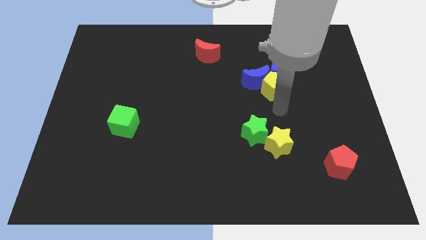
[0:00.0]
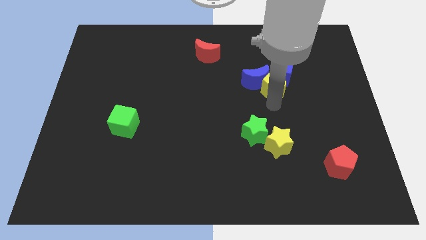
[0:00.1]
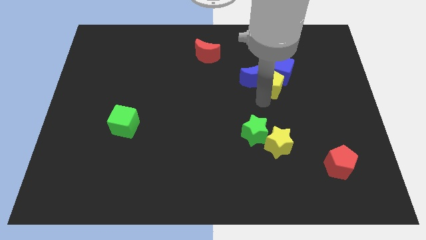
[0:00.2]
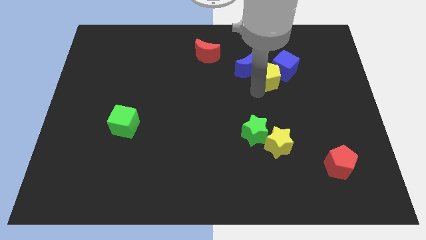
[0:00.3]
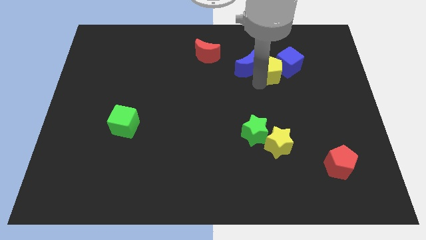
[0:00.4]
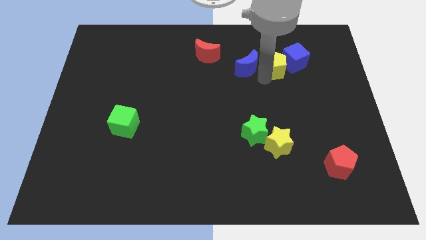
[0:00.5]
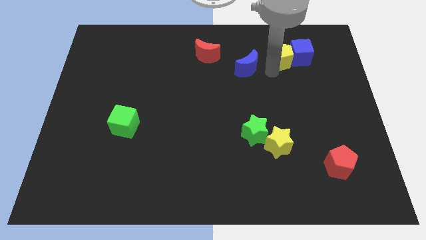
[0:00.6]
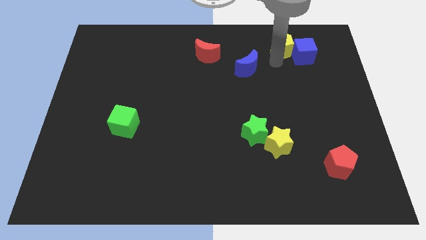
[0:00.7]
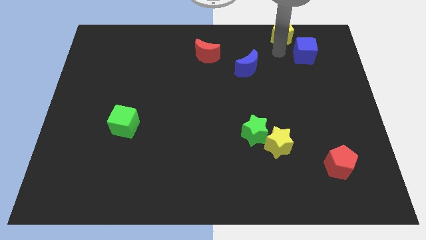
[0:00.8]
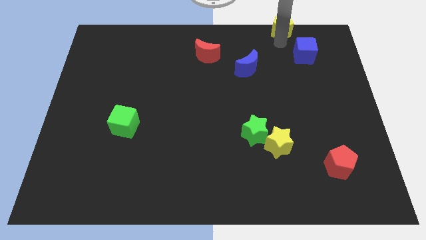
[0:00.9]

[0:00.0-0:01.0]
pull the yellow pentagon apart from the blue moon and blue cube

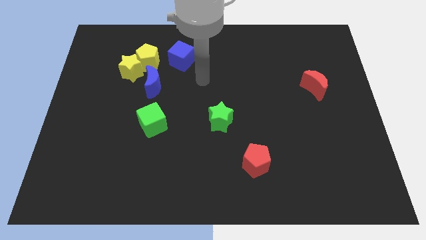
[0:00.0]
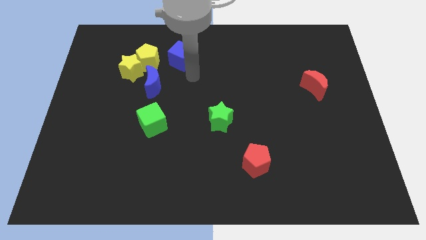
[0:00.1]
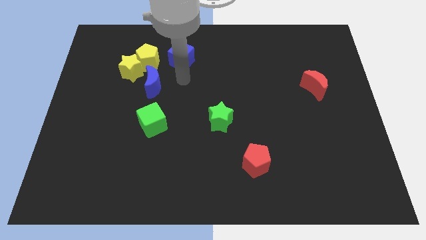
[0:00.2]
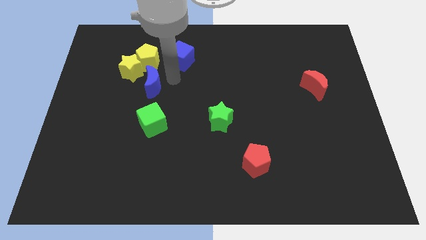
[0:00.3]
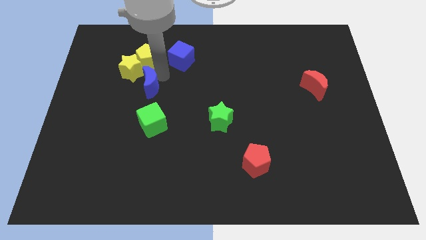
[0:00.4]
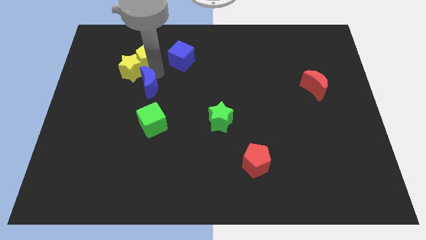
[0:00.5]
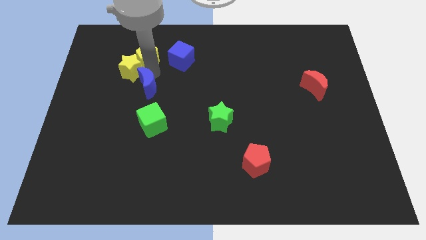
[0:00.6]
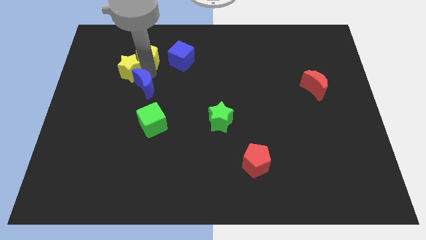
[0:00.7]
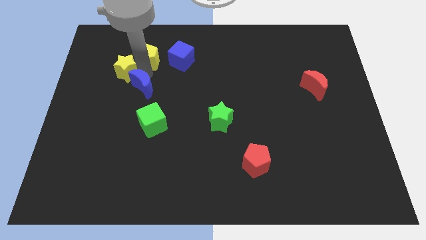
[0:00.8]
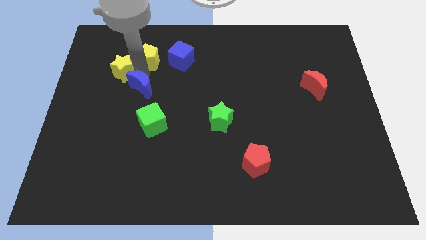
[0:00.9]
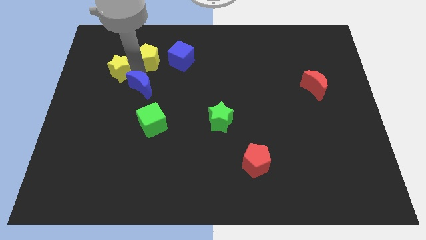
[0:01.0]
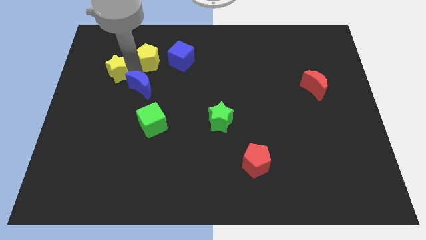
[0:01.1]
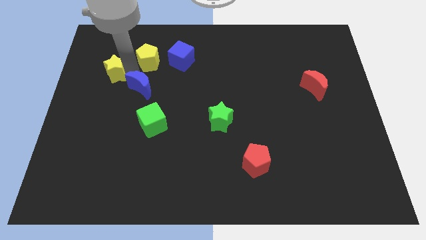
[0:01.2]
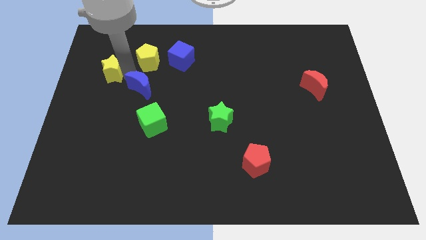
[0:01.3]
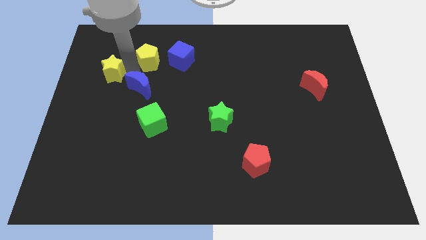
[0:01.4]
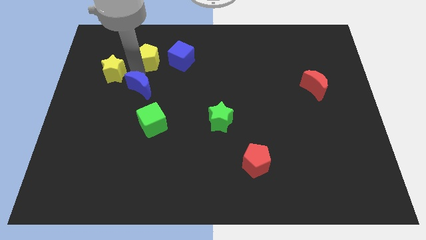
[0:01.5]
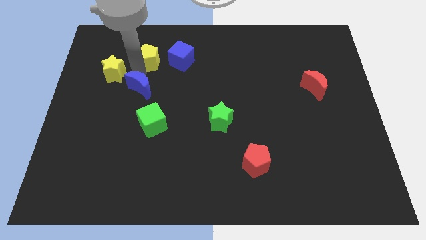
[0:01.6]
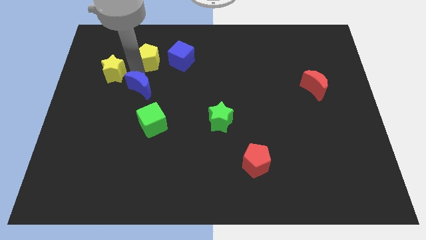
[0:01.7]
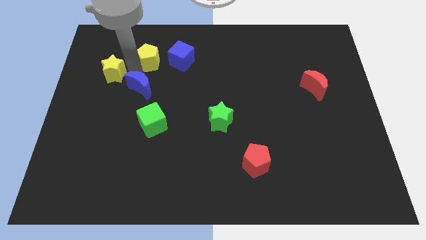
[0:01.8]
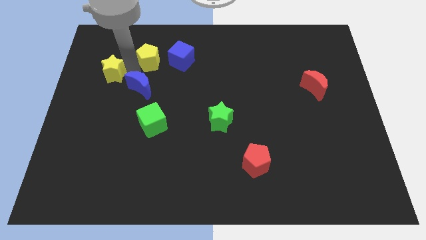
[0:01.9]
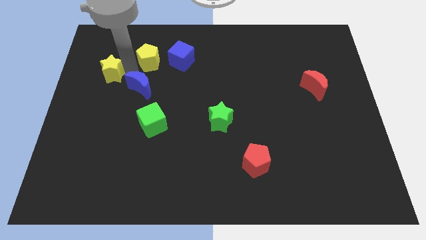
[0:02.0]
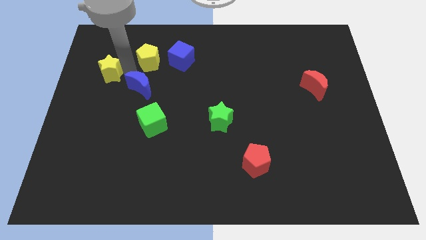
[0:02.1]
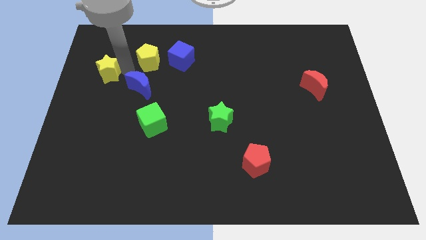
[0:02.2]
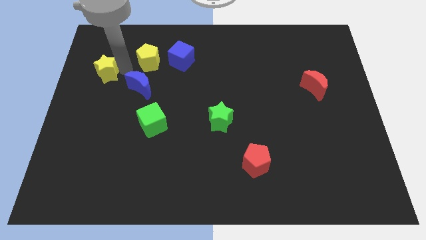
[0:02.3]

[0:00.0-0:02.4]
pull the yellow star apart from the yellow pentagon and blue moon

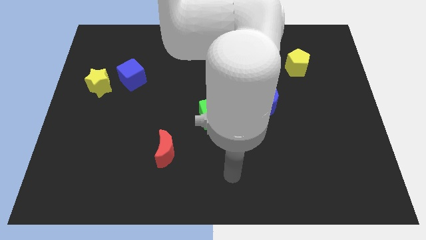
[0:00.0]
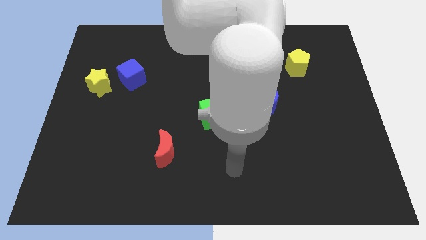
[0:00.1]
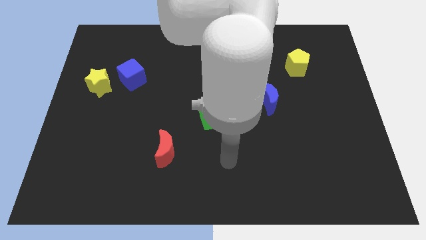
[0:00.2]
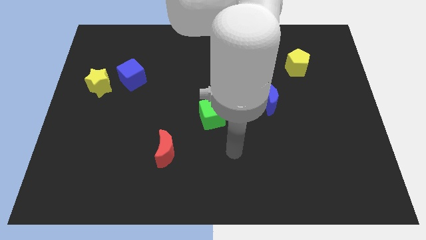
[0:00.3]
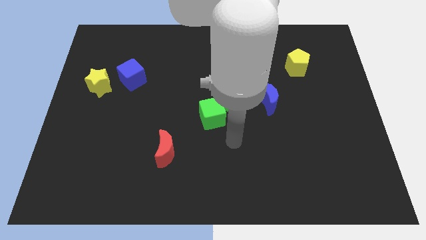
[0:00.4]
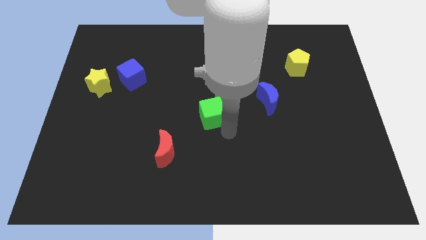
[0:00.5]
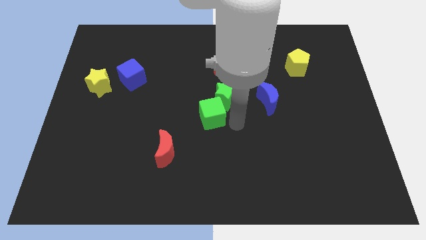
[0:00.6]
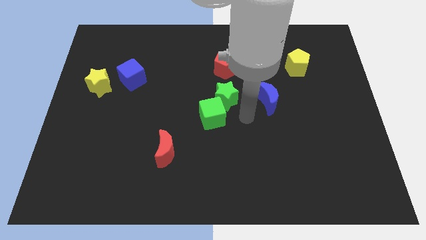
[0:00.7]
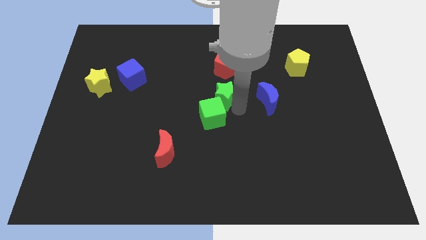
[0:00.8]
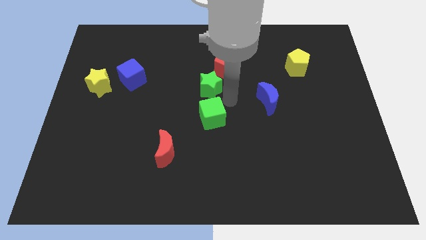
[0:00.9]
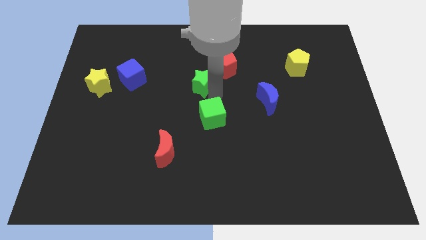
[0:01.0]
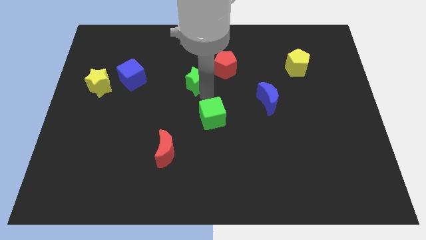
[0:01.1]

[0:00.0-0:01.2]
move the green cube away from the green star

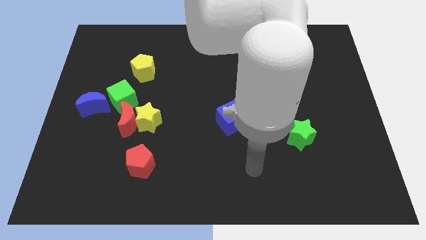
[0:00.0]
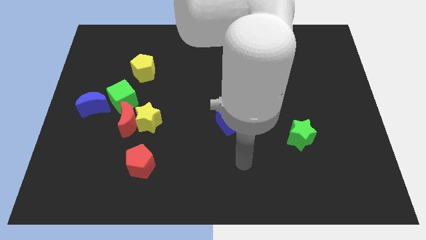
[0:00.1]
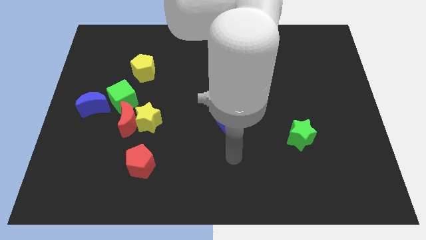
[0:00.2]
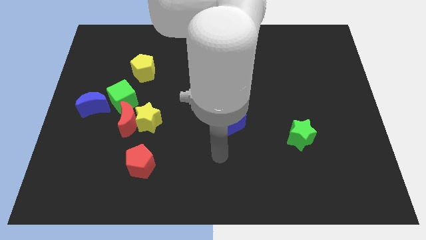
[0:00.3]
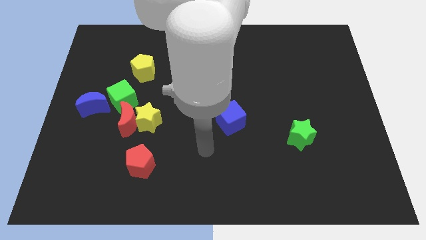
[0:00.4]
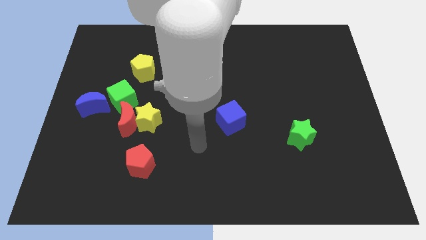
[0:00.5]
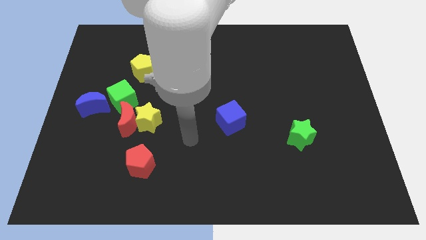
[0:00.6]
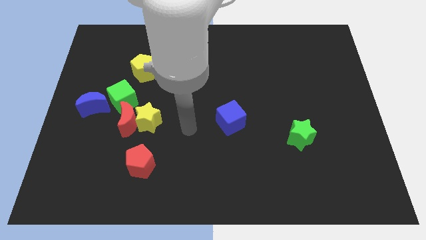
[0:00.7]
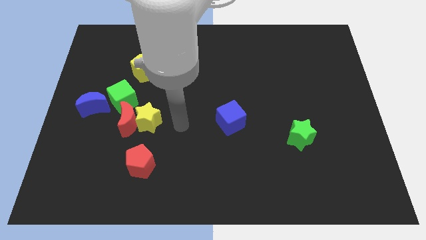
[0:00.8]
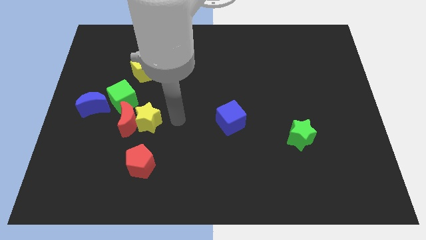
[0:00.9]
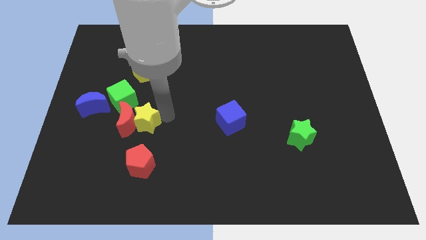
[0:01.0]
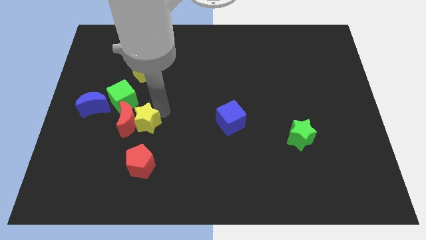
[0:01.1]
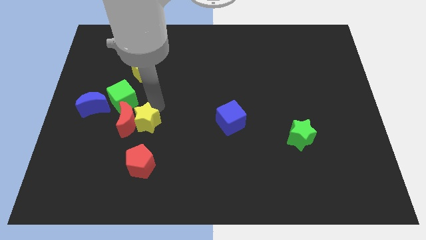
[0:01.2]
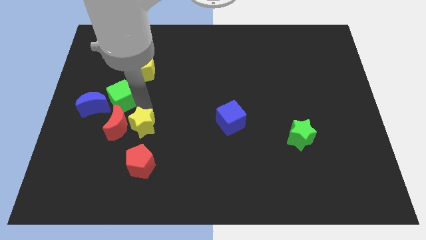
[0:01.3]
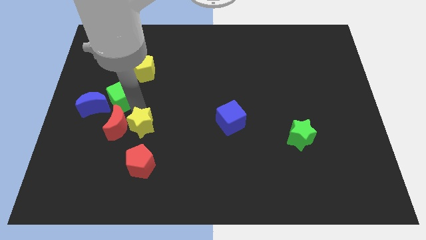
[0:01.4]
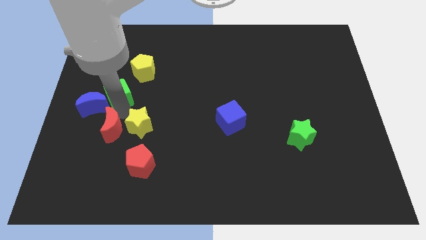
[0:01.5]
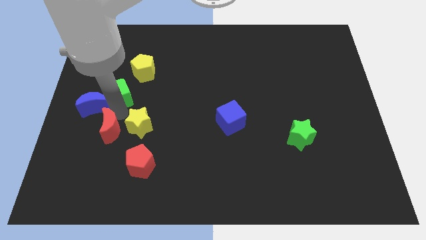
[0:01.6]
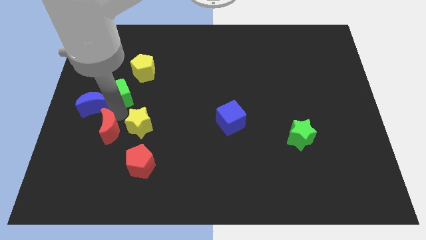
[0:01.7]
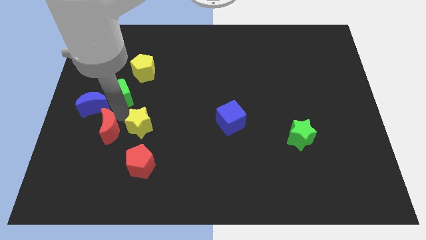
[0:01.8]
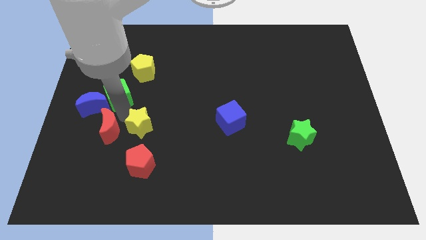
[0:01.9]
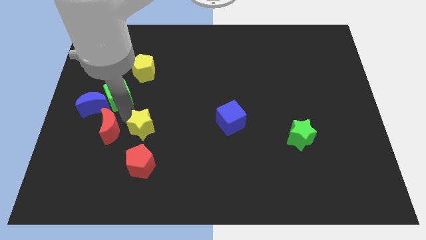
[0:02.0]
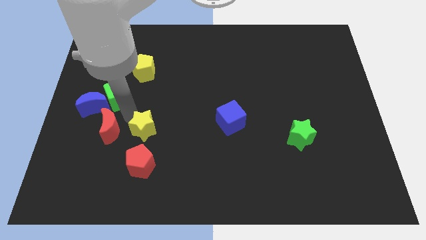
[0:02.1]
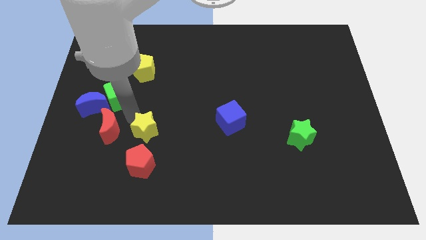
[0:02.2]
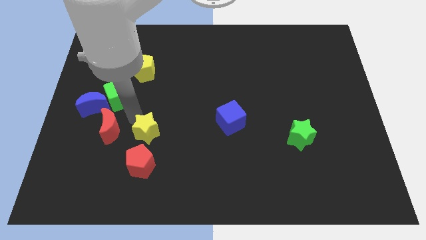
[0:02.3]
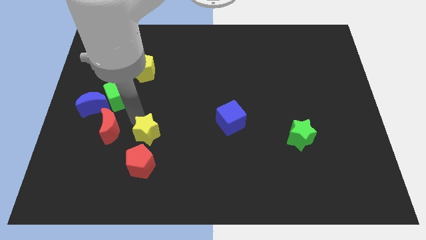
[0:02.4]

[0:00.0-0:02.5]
move the yellow star away from the red moon and green cube

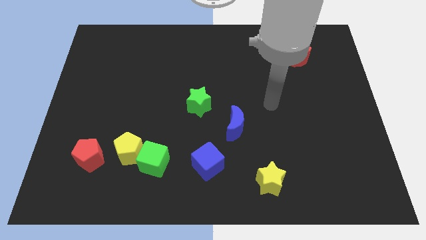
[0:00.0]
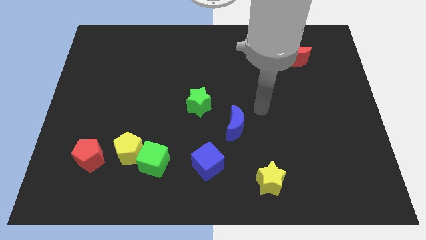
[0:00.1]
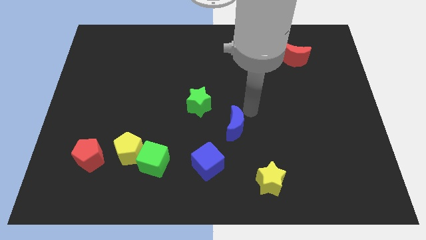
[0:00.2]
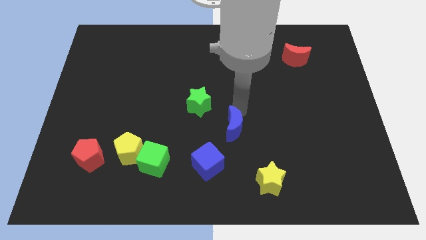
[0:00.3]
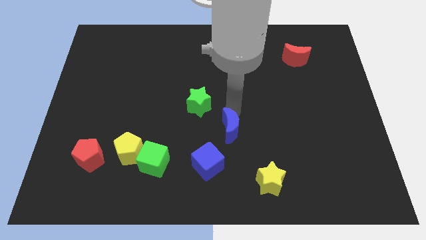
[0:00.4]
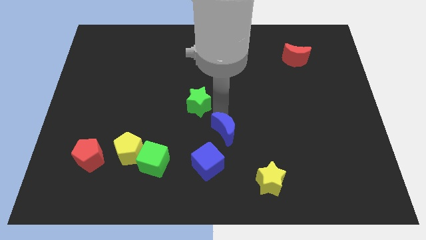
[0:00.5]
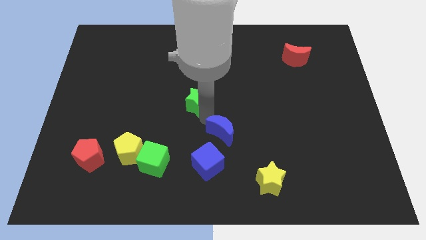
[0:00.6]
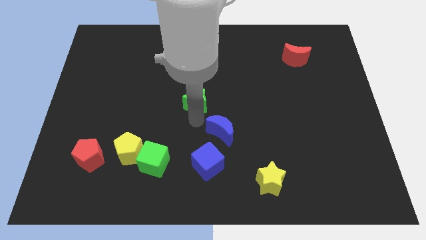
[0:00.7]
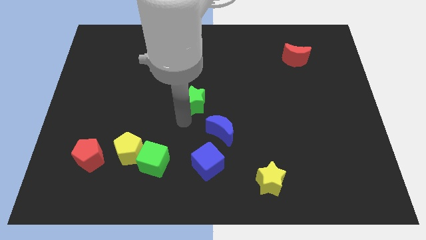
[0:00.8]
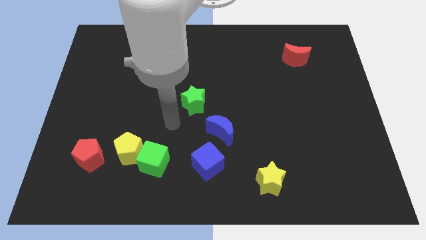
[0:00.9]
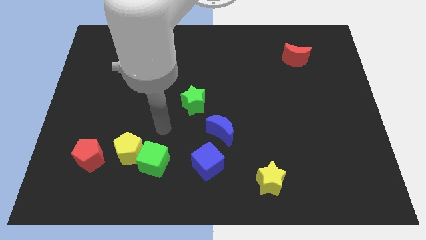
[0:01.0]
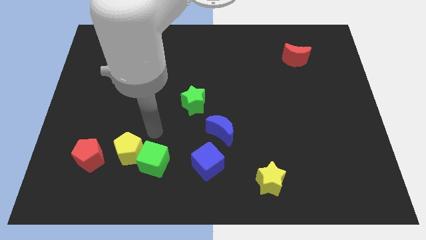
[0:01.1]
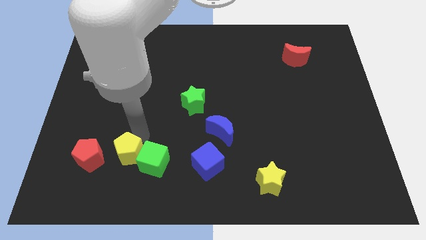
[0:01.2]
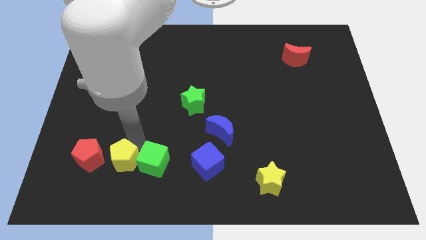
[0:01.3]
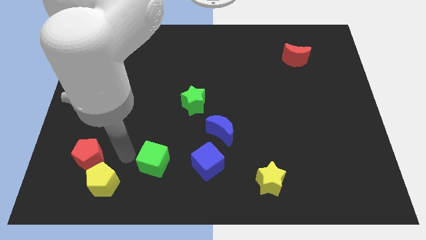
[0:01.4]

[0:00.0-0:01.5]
separate the green cube from the yellow pentagon

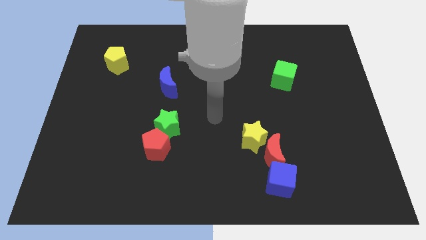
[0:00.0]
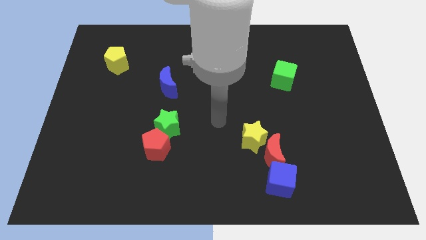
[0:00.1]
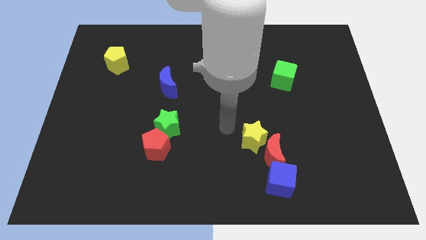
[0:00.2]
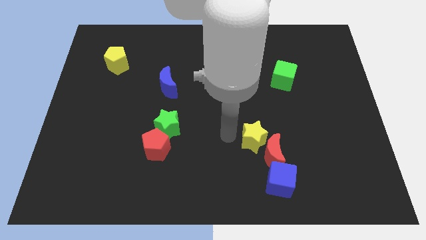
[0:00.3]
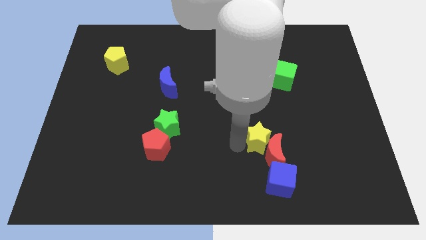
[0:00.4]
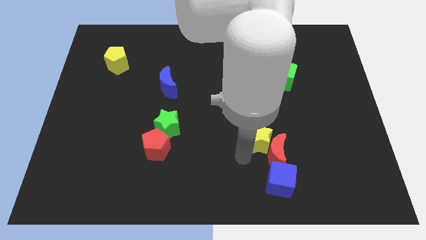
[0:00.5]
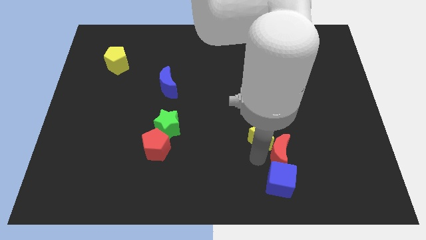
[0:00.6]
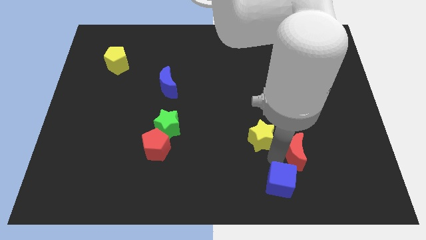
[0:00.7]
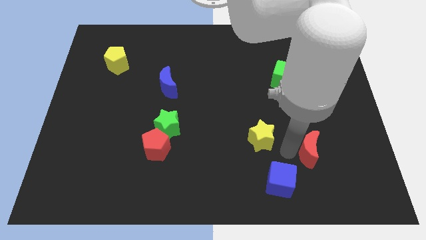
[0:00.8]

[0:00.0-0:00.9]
move the yellow star away from the red moon
